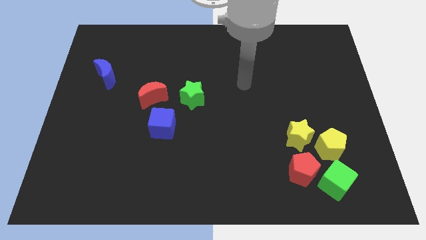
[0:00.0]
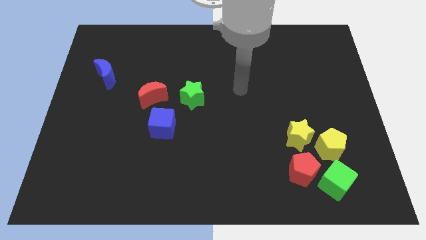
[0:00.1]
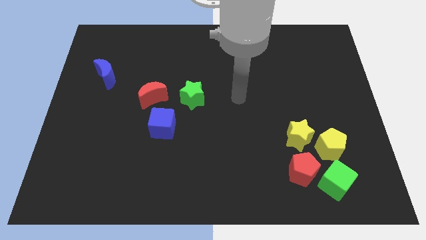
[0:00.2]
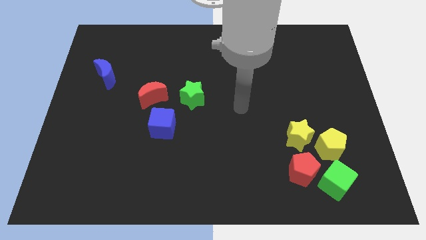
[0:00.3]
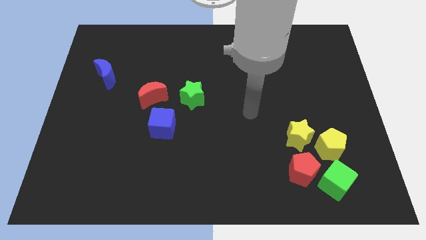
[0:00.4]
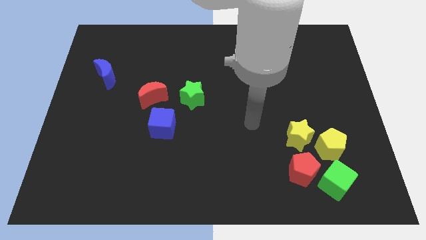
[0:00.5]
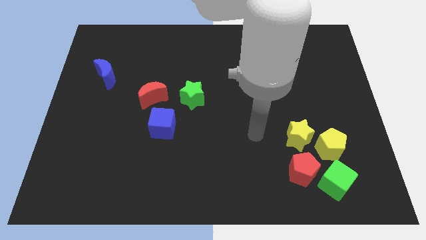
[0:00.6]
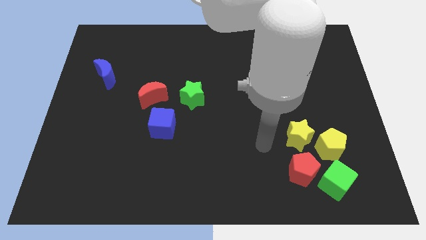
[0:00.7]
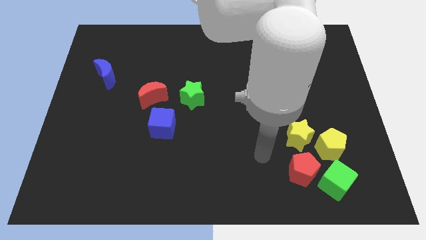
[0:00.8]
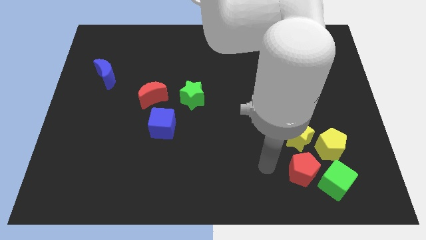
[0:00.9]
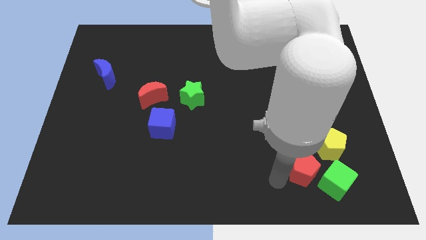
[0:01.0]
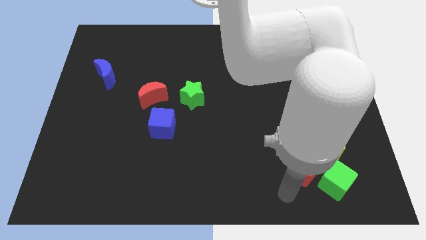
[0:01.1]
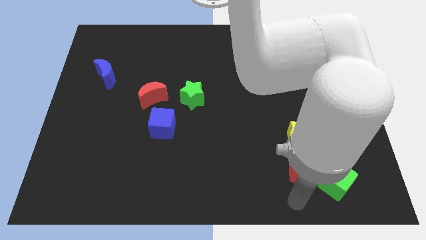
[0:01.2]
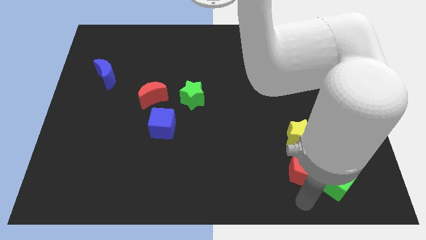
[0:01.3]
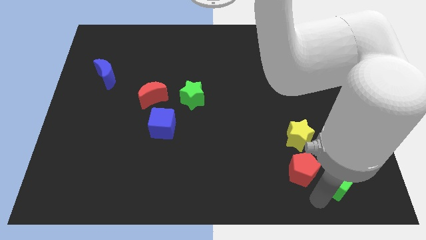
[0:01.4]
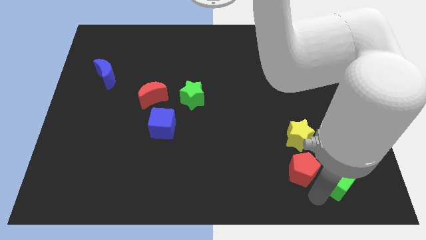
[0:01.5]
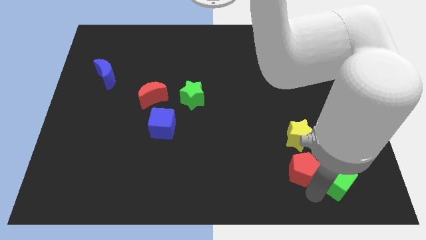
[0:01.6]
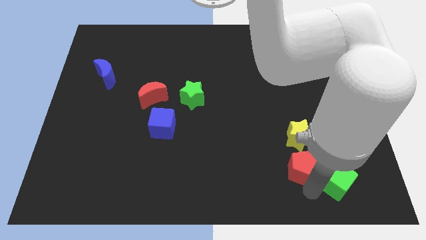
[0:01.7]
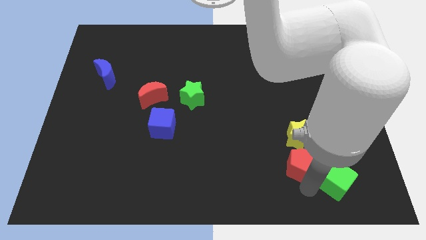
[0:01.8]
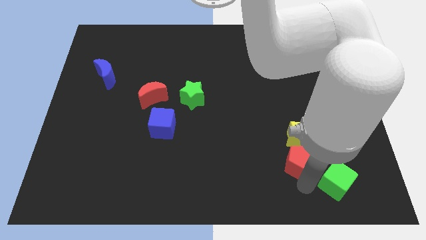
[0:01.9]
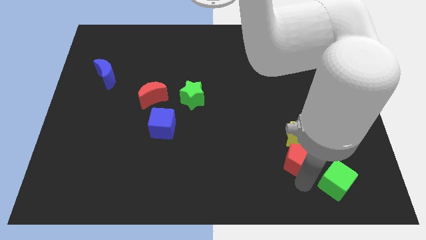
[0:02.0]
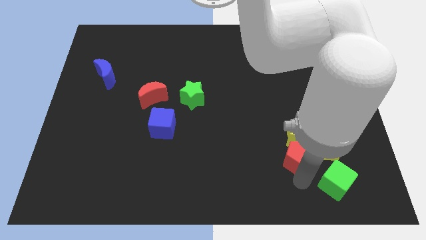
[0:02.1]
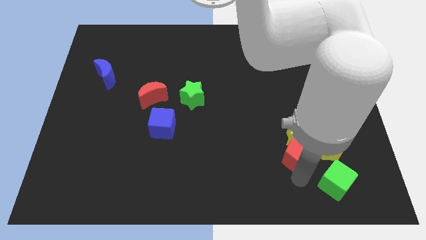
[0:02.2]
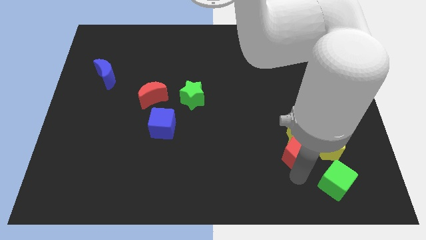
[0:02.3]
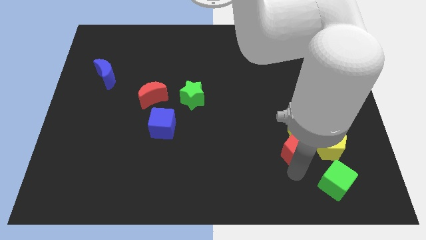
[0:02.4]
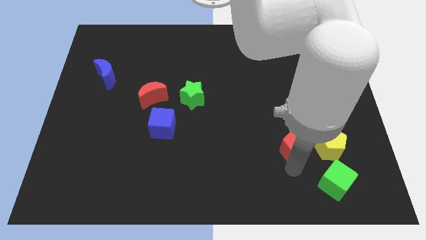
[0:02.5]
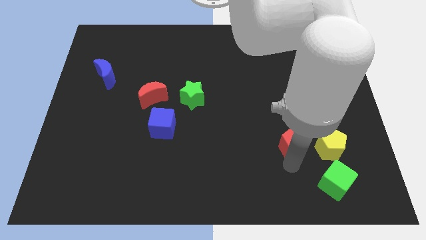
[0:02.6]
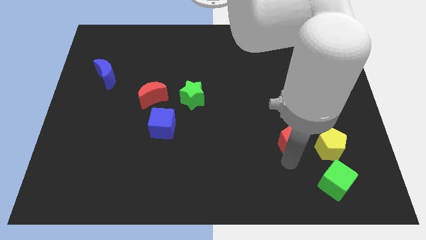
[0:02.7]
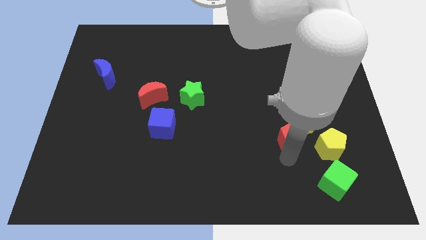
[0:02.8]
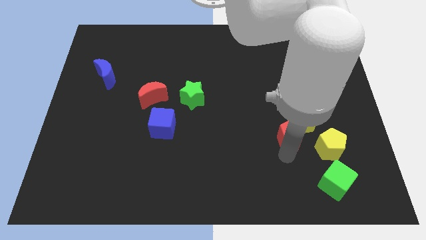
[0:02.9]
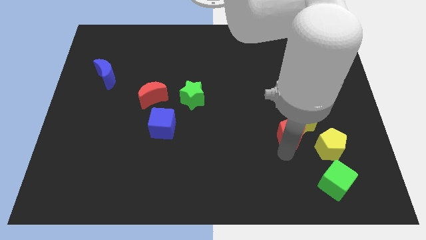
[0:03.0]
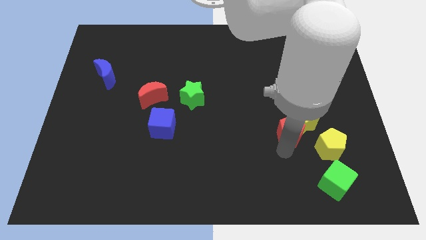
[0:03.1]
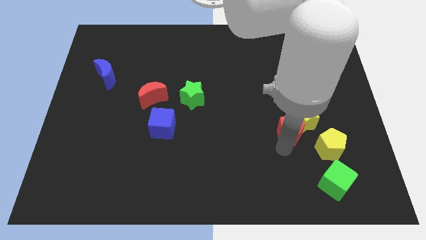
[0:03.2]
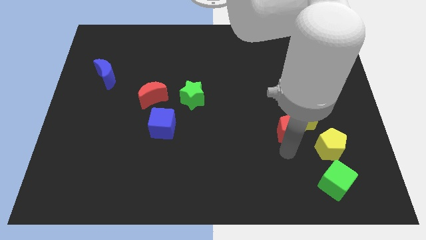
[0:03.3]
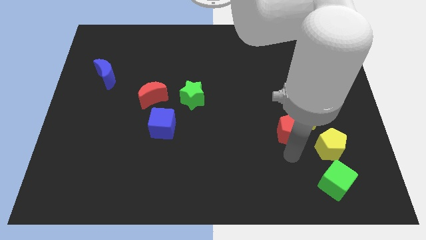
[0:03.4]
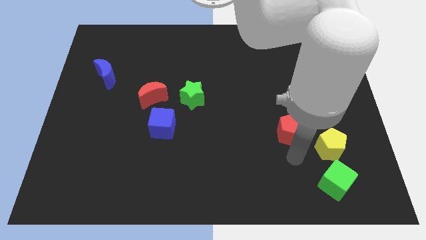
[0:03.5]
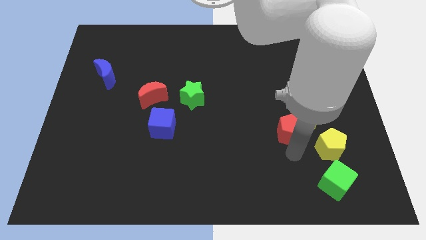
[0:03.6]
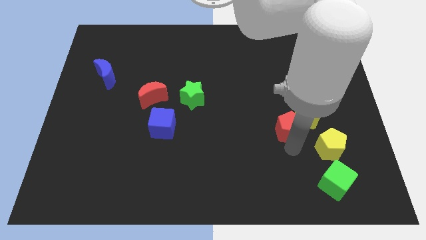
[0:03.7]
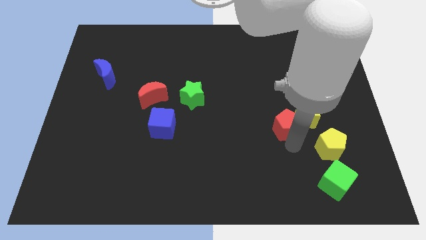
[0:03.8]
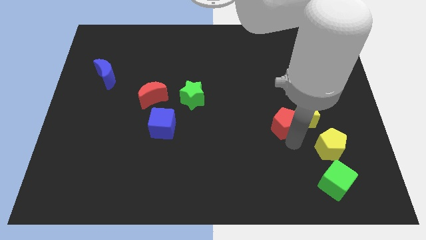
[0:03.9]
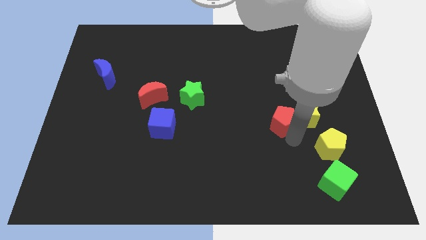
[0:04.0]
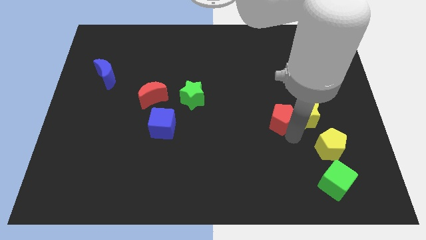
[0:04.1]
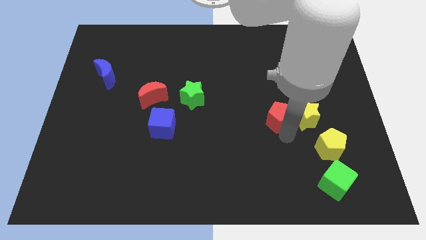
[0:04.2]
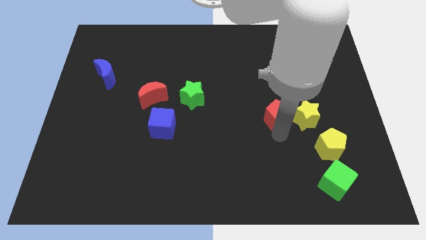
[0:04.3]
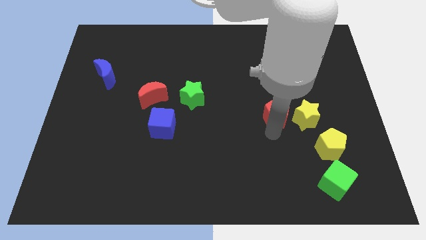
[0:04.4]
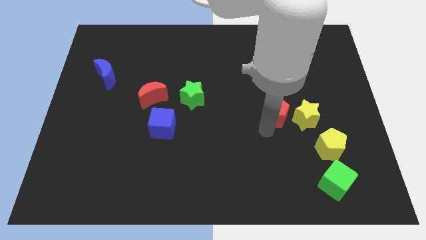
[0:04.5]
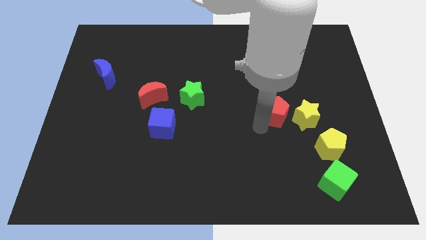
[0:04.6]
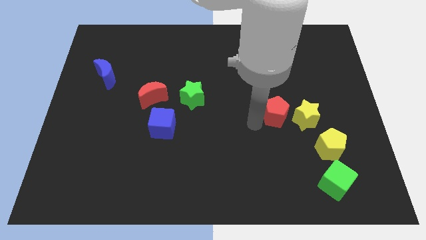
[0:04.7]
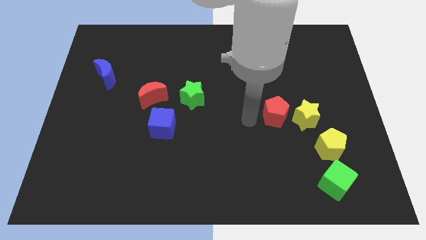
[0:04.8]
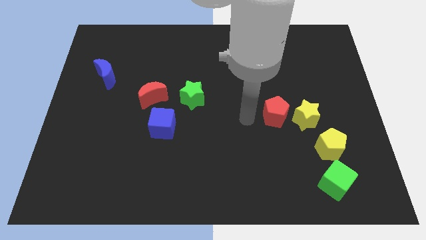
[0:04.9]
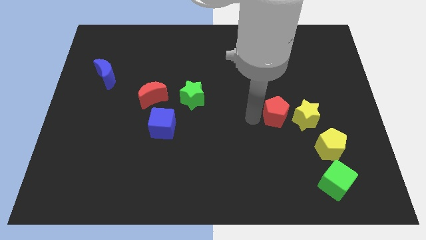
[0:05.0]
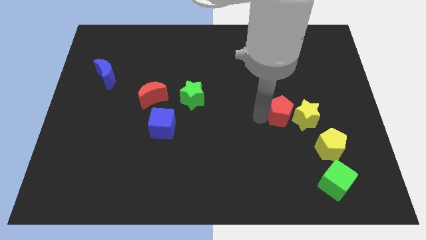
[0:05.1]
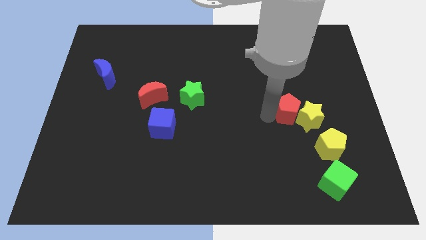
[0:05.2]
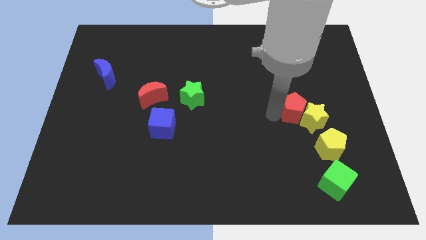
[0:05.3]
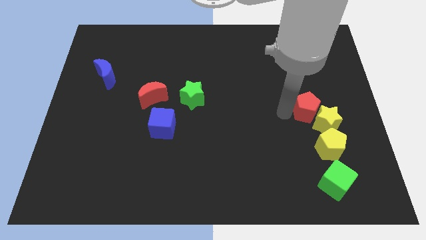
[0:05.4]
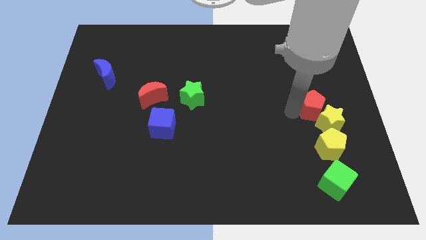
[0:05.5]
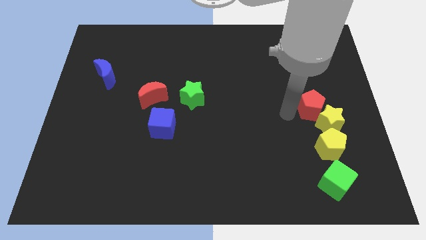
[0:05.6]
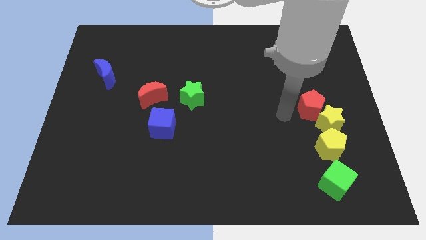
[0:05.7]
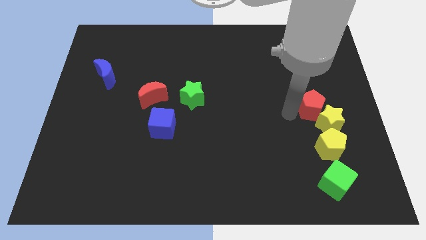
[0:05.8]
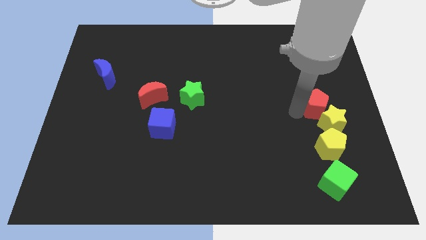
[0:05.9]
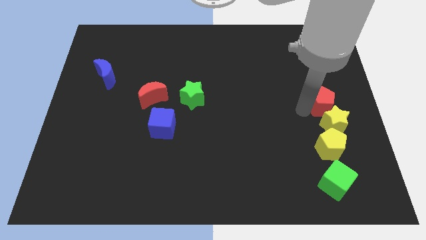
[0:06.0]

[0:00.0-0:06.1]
push the red pentagon to the center right
